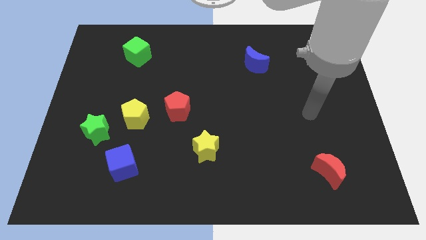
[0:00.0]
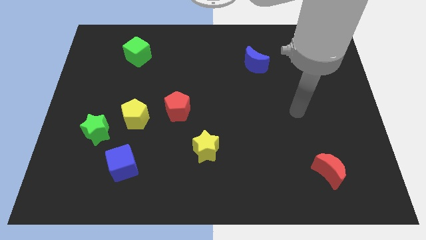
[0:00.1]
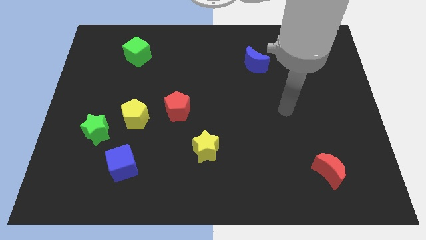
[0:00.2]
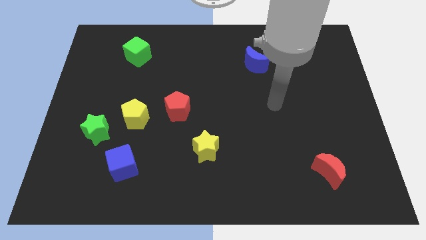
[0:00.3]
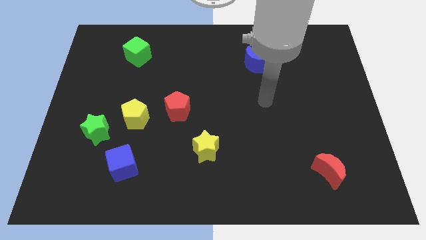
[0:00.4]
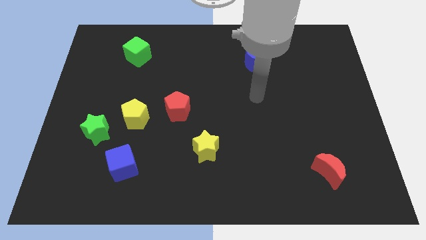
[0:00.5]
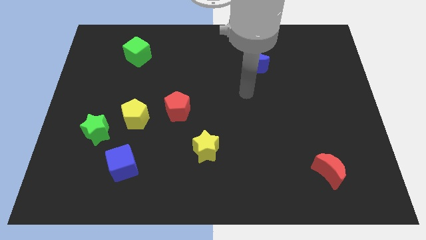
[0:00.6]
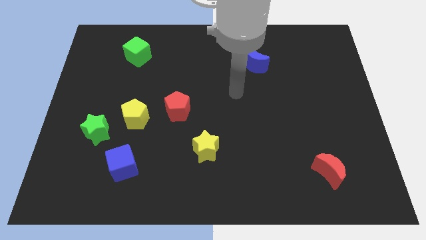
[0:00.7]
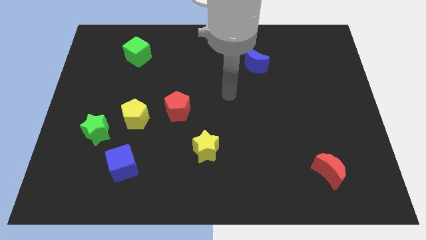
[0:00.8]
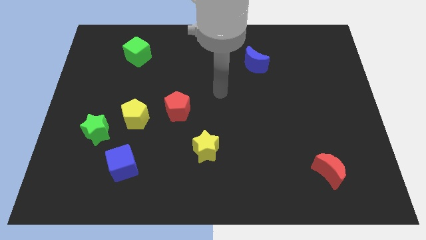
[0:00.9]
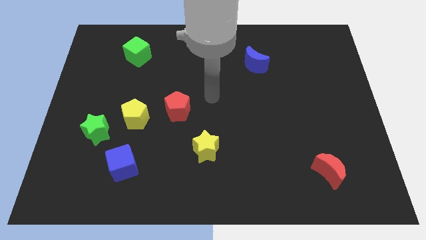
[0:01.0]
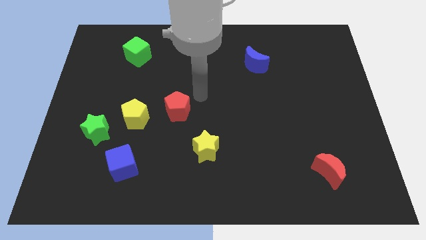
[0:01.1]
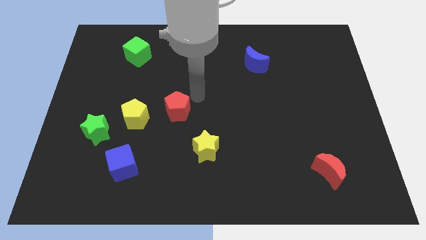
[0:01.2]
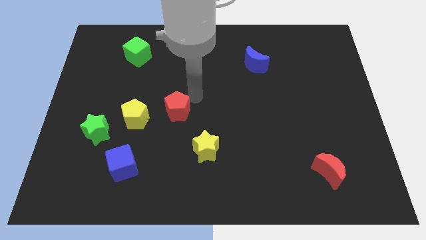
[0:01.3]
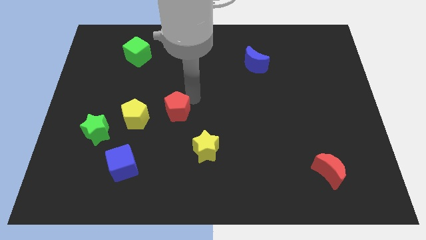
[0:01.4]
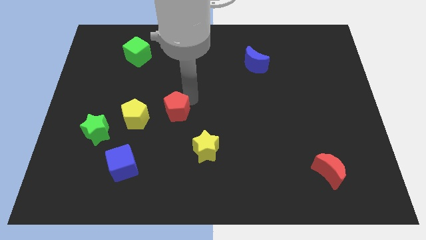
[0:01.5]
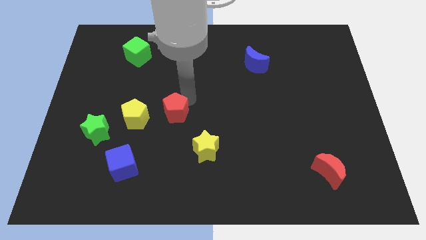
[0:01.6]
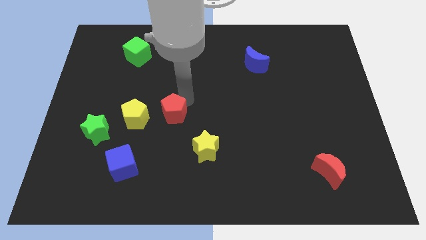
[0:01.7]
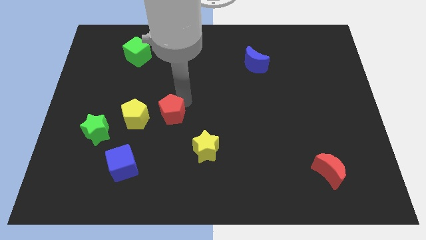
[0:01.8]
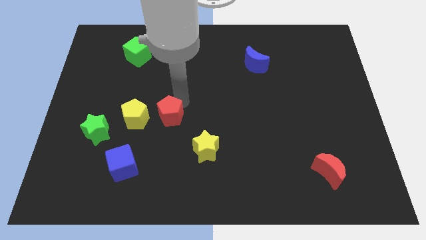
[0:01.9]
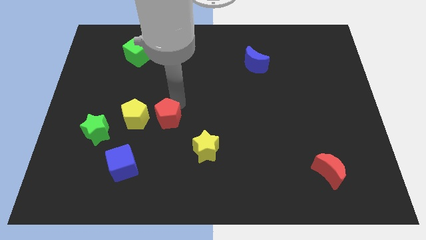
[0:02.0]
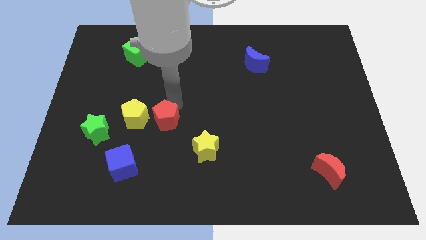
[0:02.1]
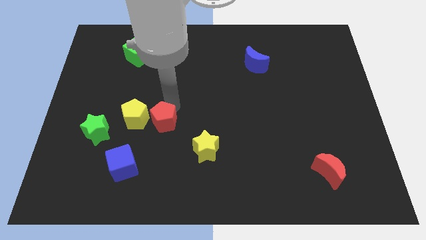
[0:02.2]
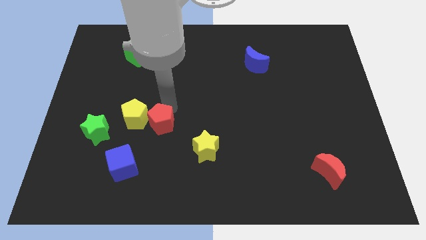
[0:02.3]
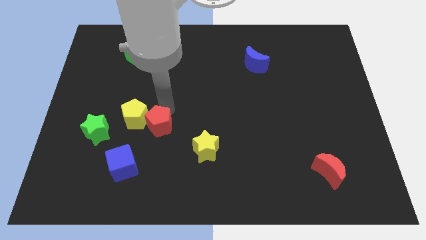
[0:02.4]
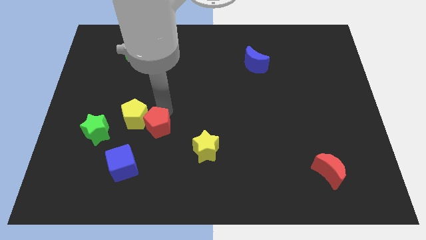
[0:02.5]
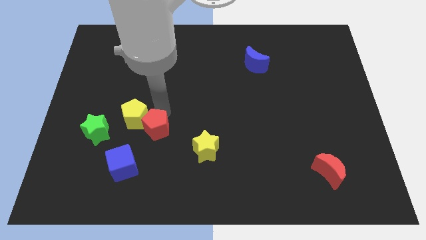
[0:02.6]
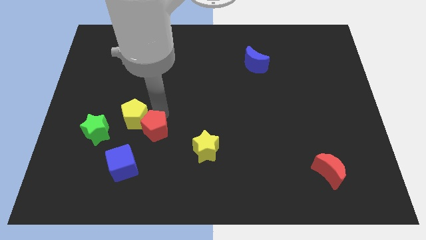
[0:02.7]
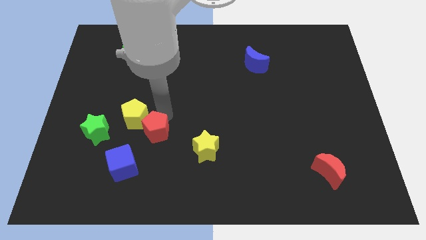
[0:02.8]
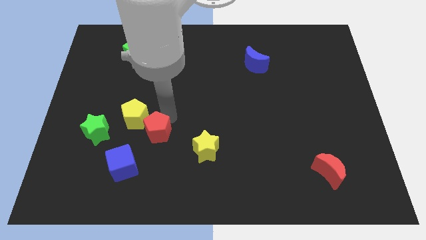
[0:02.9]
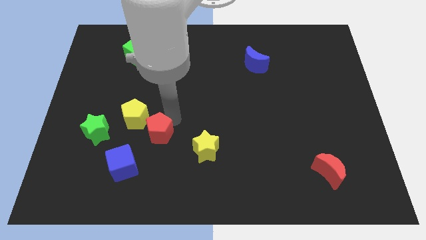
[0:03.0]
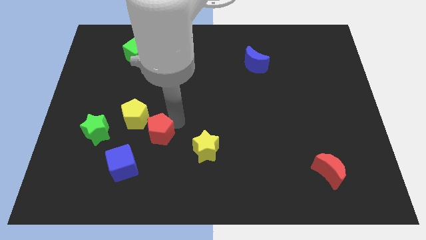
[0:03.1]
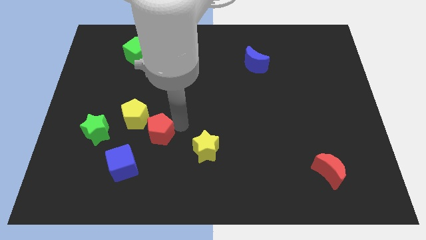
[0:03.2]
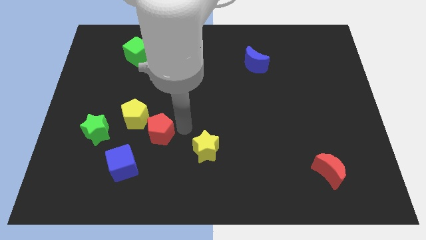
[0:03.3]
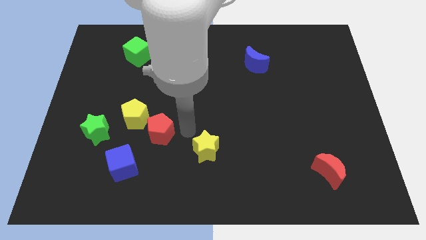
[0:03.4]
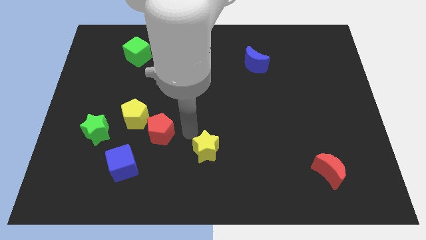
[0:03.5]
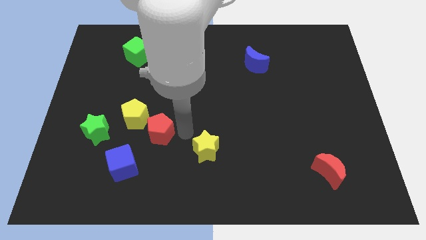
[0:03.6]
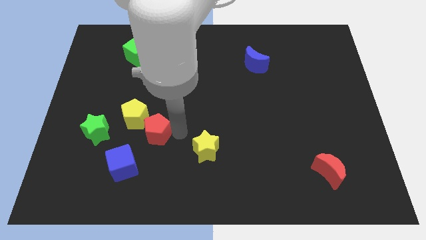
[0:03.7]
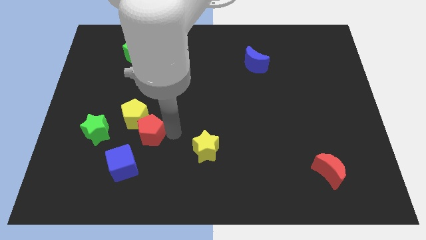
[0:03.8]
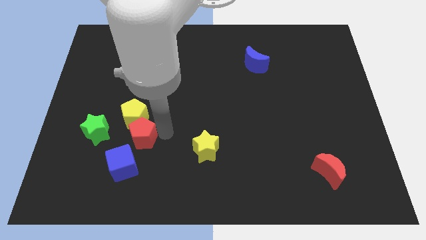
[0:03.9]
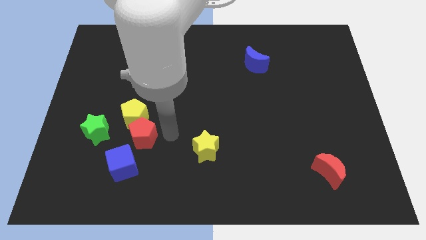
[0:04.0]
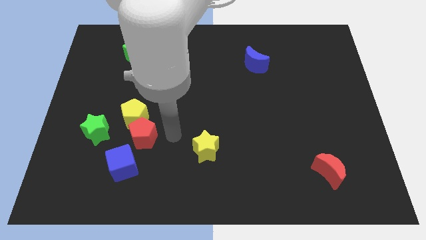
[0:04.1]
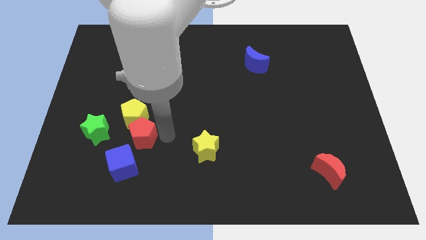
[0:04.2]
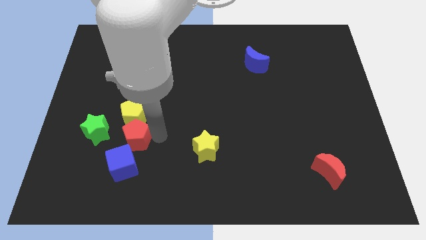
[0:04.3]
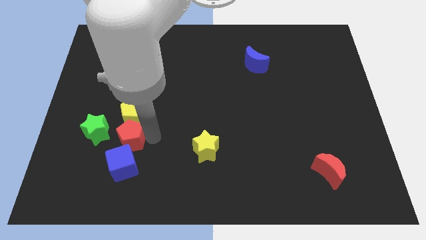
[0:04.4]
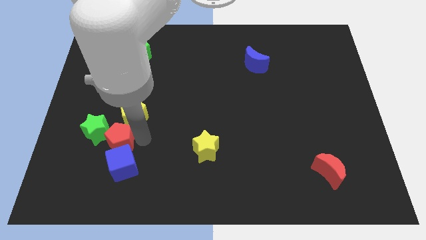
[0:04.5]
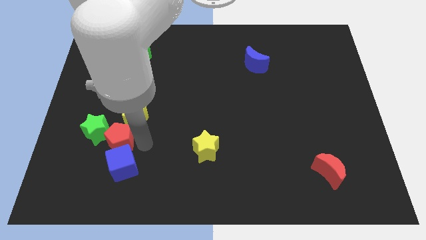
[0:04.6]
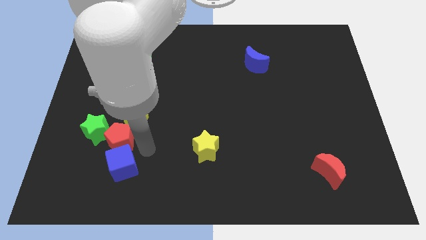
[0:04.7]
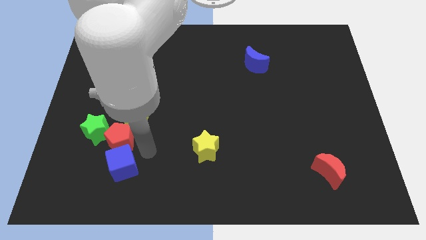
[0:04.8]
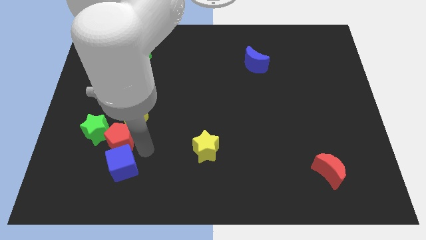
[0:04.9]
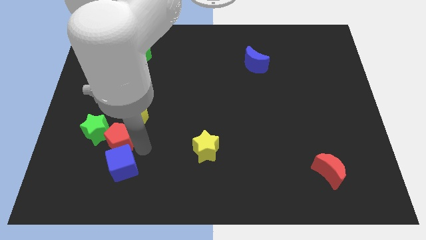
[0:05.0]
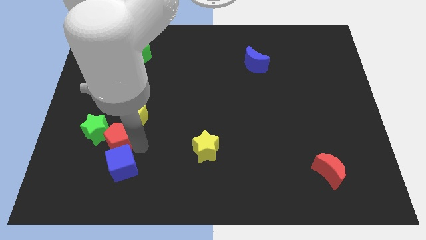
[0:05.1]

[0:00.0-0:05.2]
move the red pentagon next to the green star

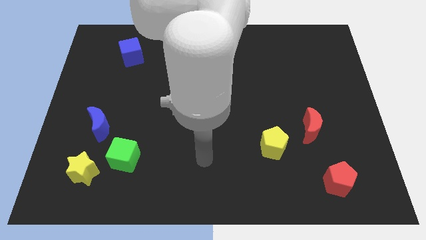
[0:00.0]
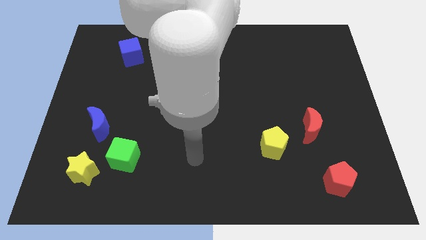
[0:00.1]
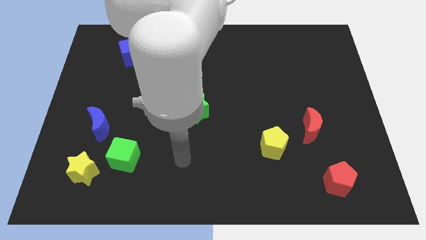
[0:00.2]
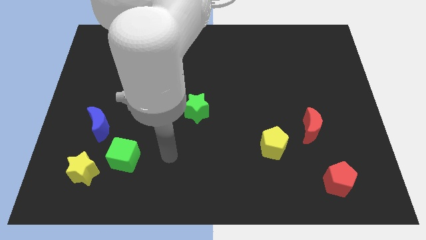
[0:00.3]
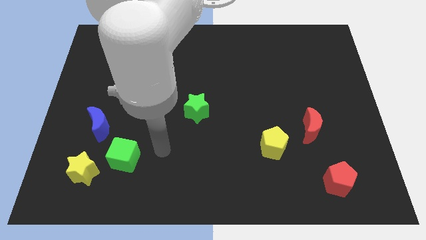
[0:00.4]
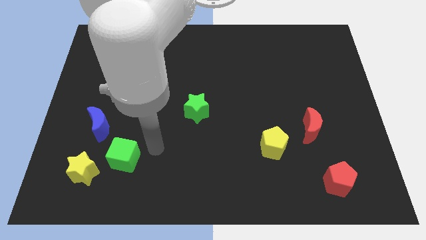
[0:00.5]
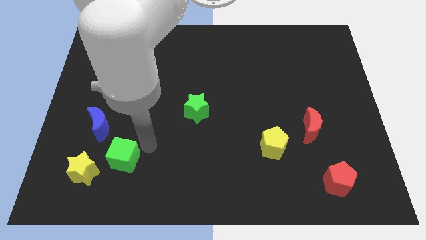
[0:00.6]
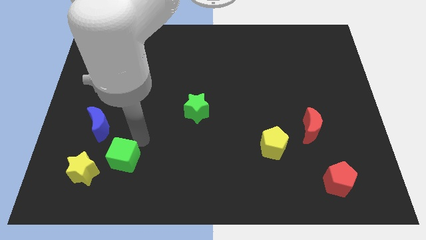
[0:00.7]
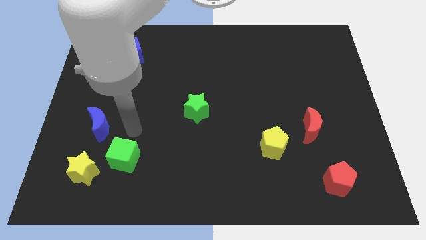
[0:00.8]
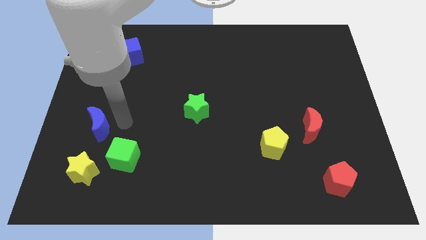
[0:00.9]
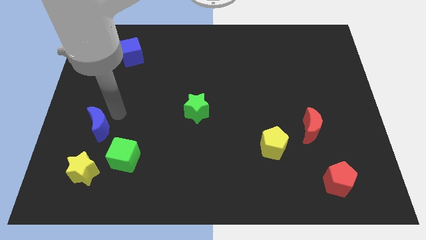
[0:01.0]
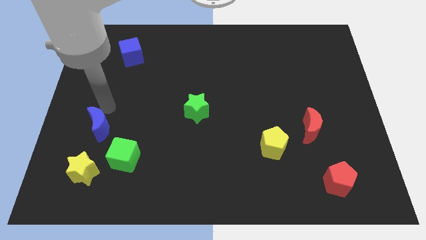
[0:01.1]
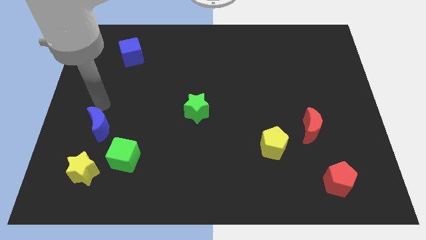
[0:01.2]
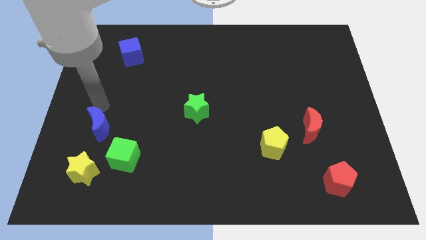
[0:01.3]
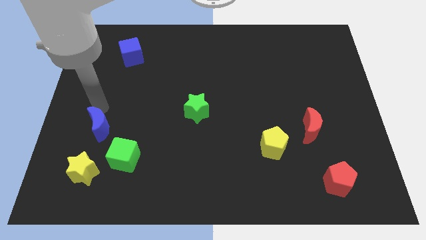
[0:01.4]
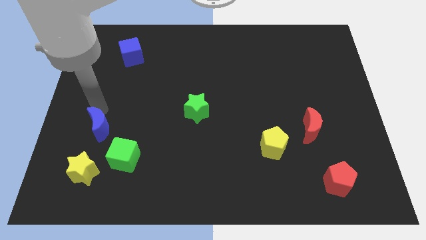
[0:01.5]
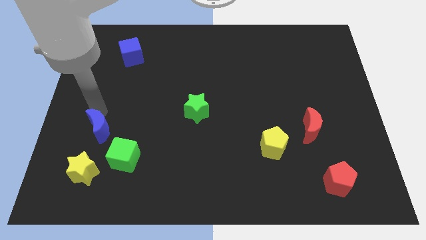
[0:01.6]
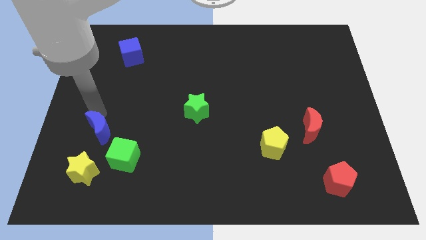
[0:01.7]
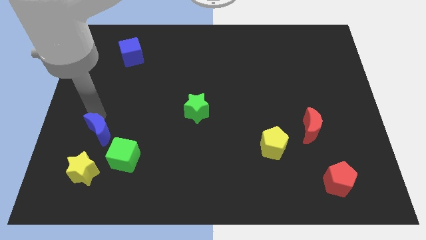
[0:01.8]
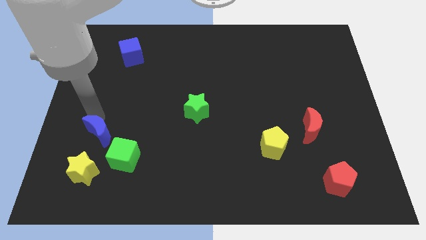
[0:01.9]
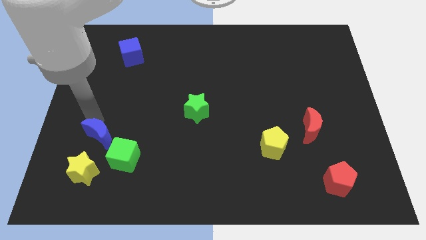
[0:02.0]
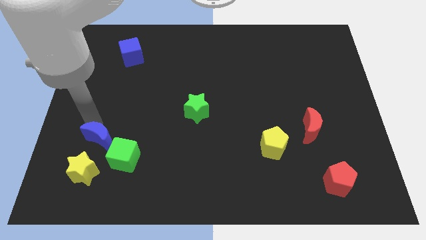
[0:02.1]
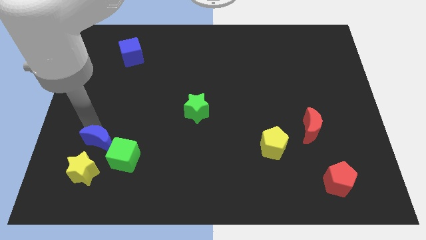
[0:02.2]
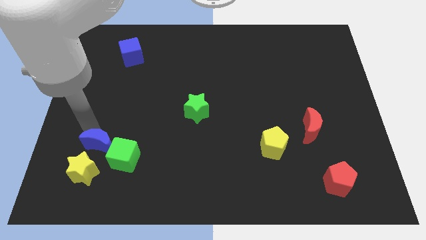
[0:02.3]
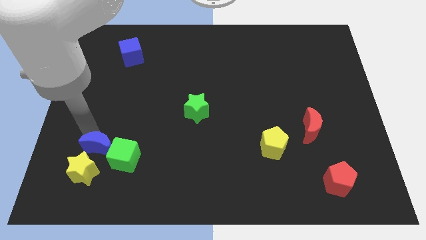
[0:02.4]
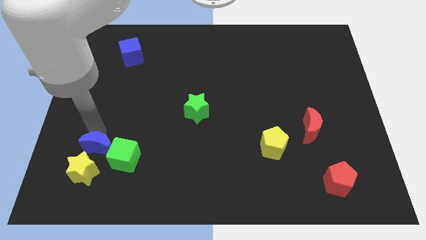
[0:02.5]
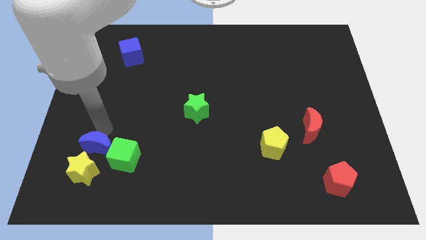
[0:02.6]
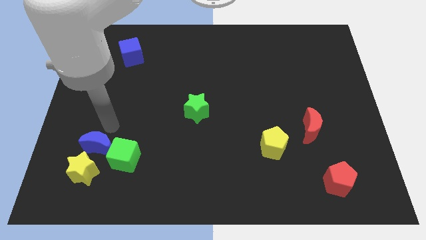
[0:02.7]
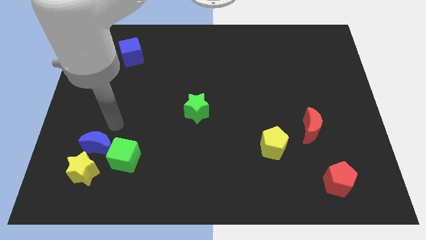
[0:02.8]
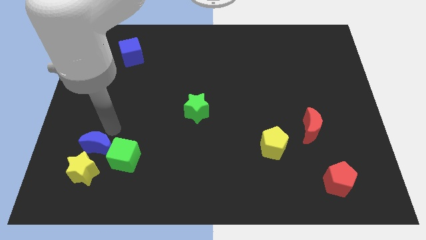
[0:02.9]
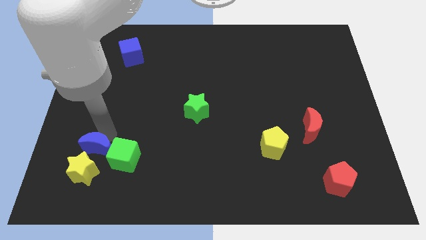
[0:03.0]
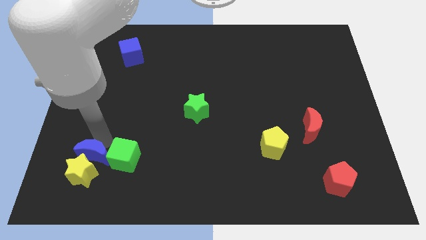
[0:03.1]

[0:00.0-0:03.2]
push the blue moon next to the yellow star
